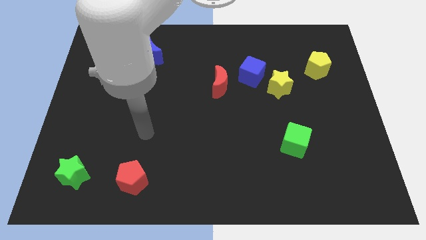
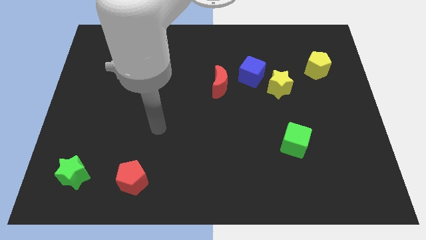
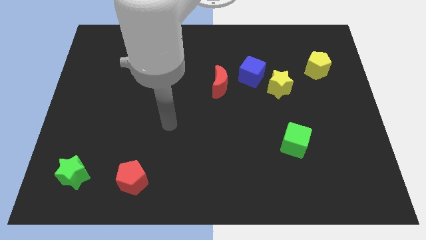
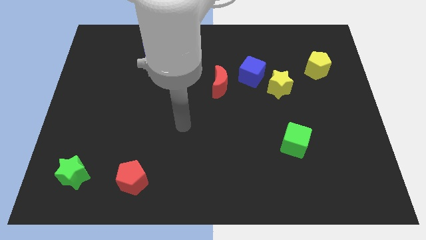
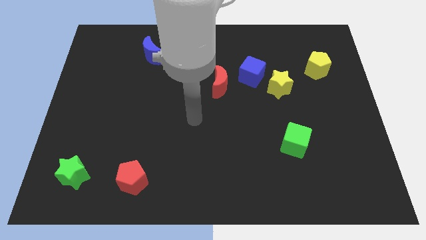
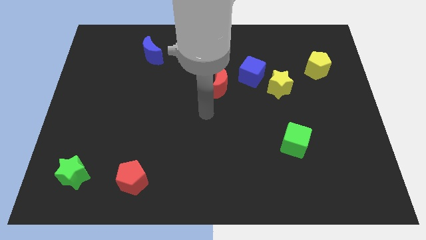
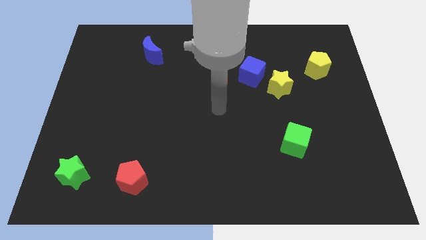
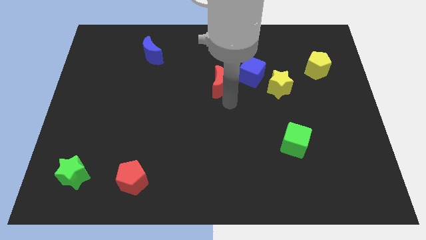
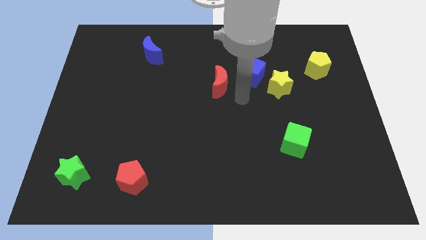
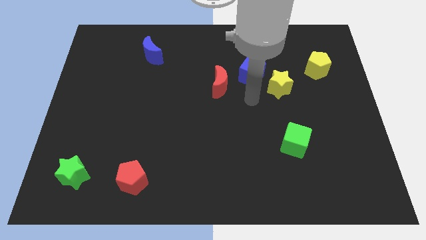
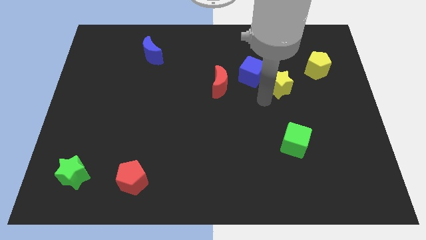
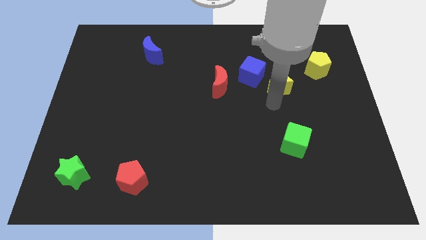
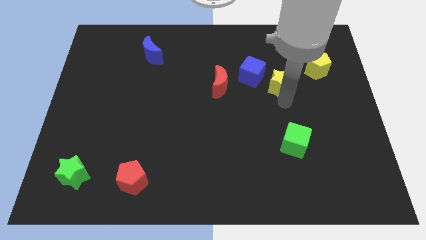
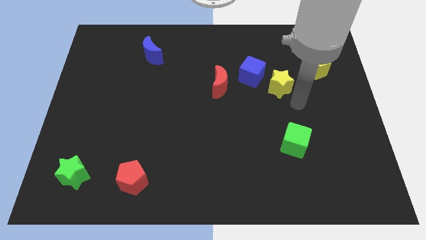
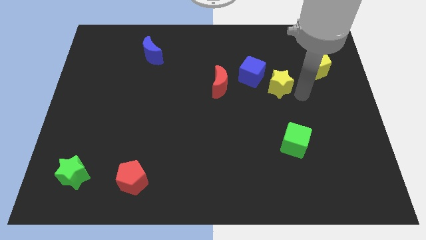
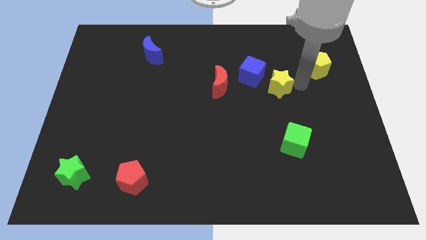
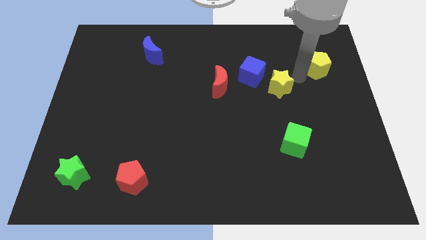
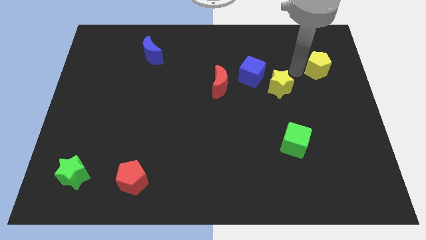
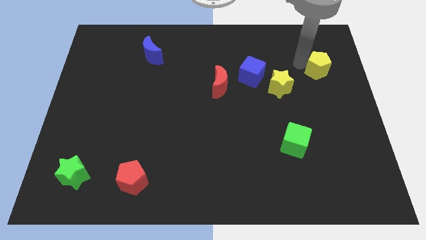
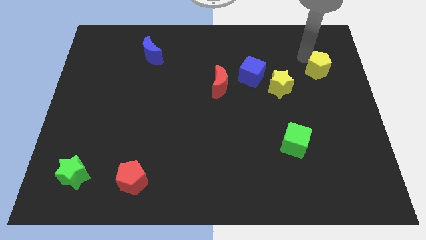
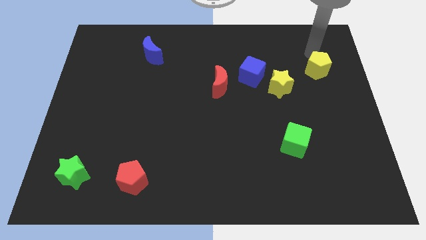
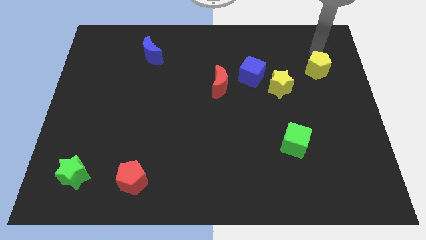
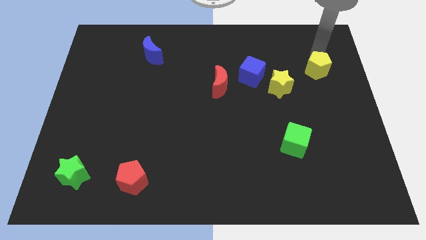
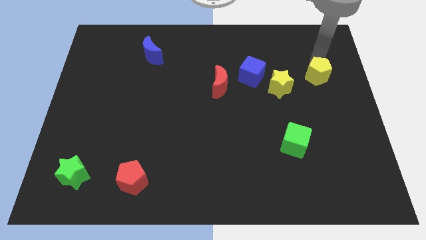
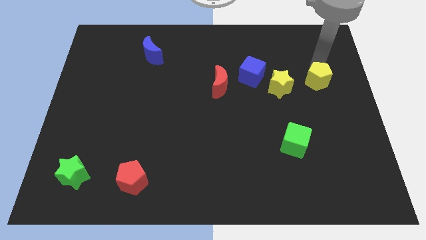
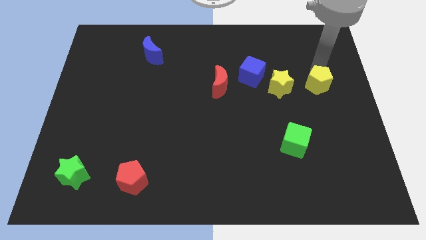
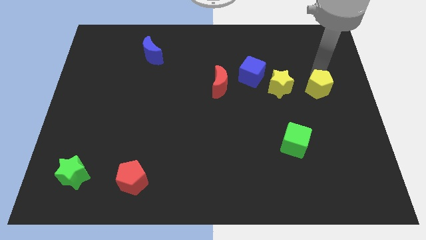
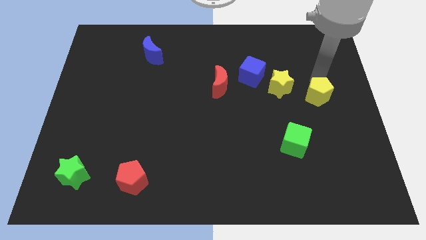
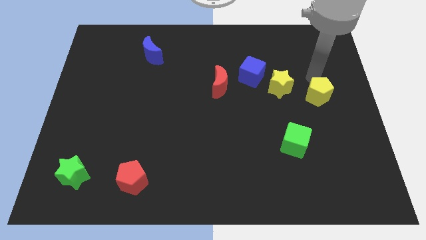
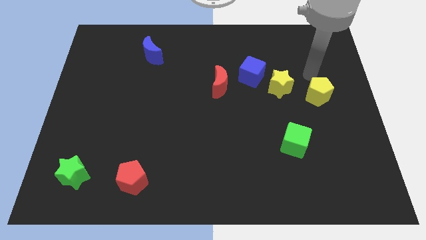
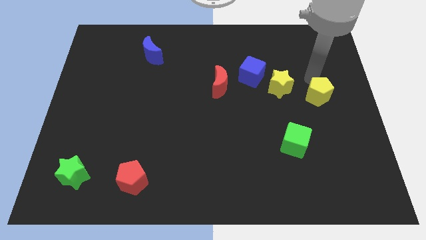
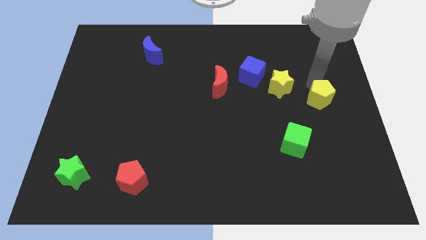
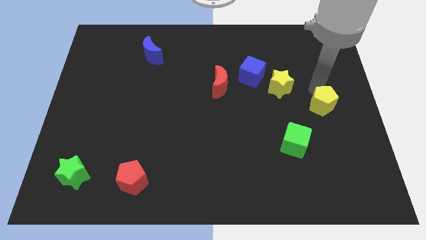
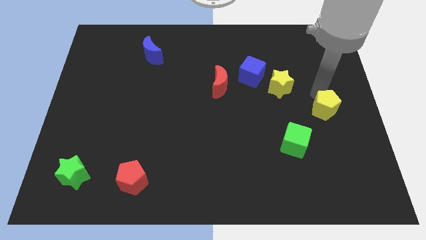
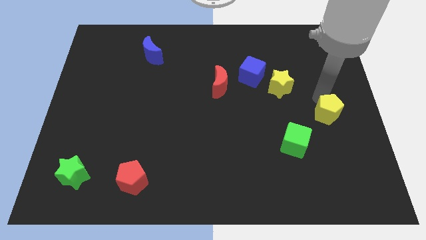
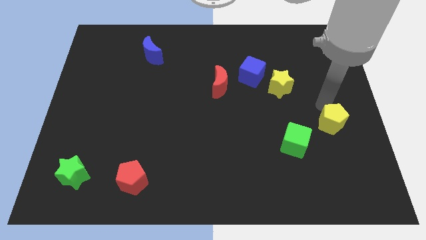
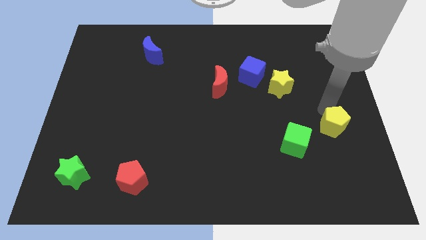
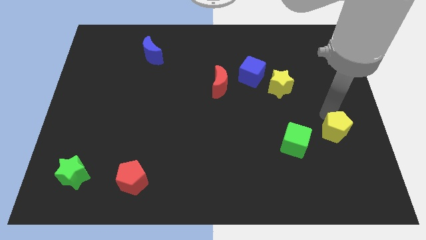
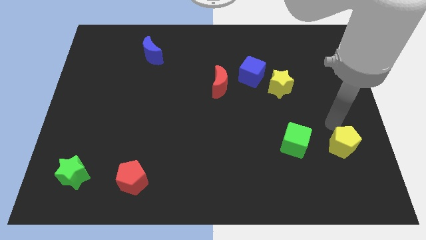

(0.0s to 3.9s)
move the yellow pentagon downwards

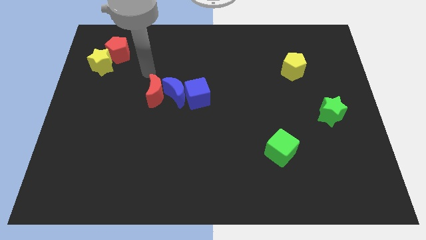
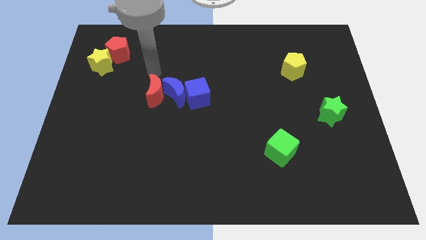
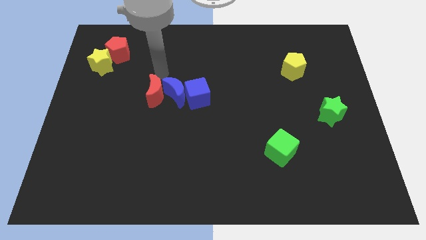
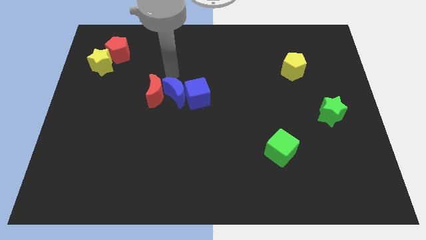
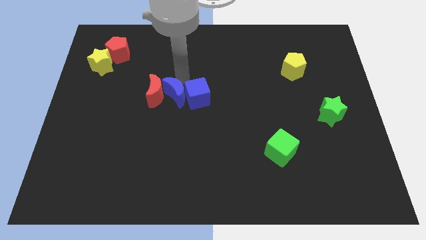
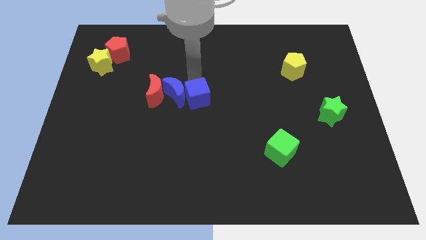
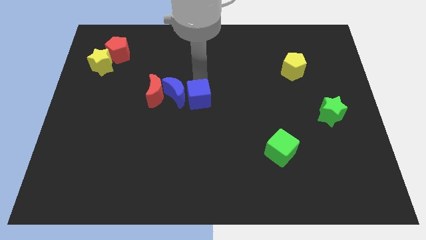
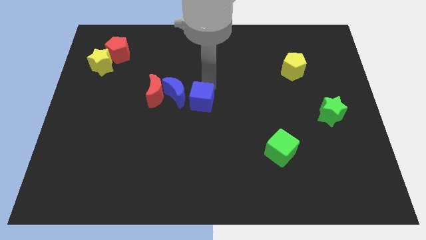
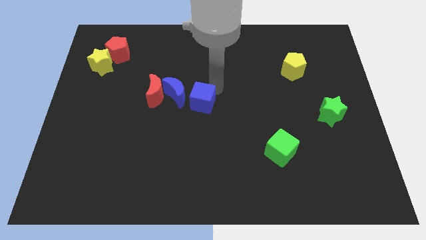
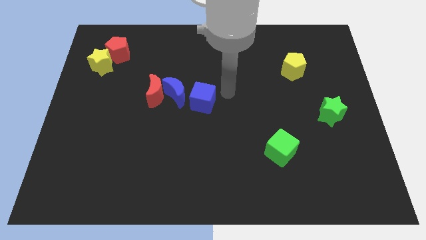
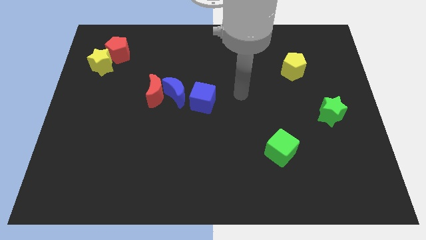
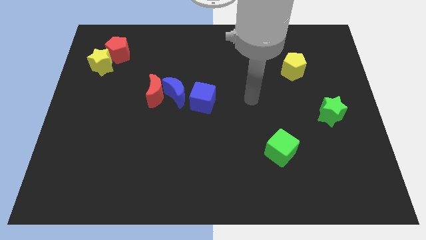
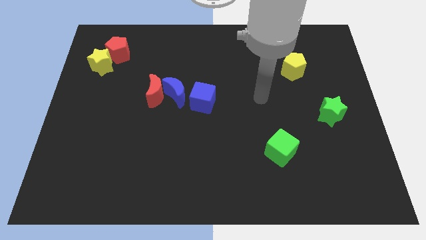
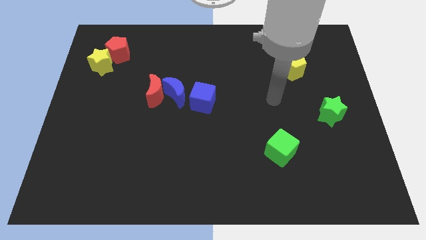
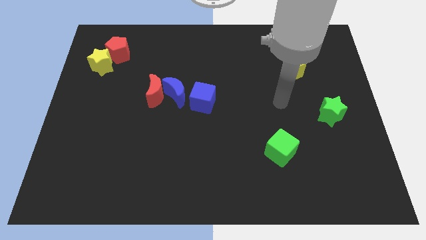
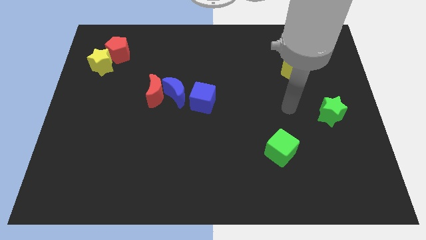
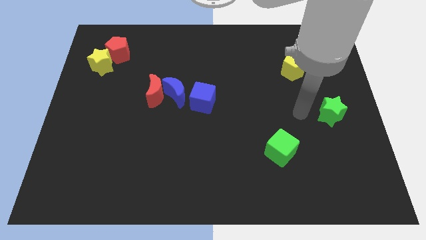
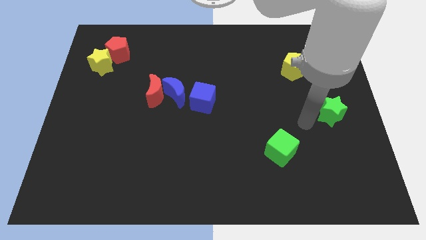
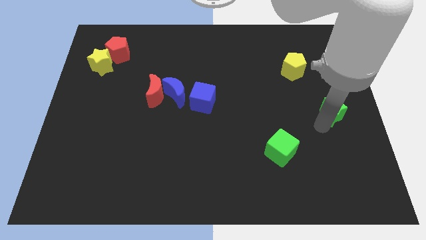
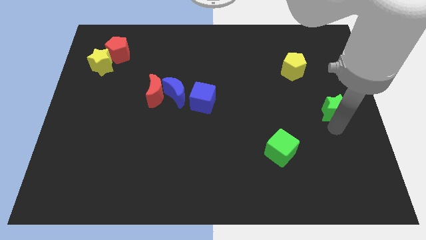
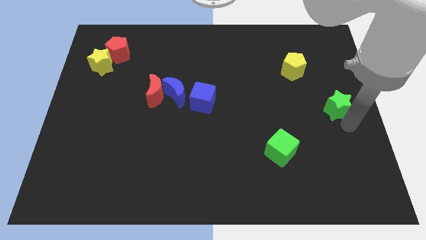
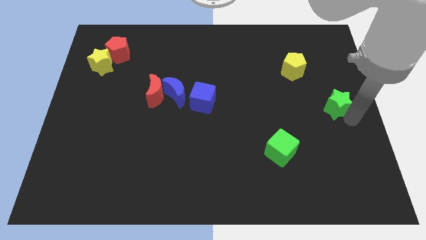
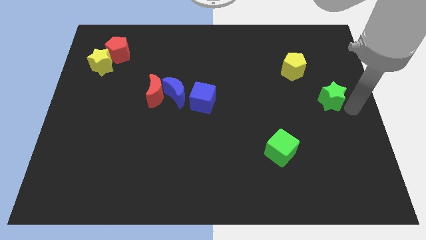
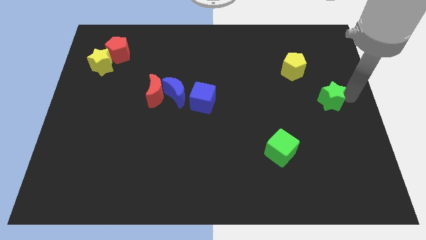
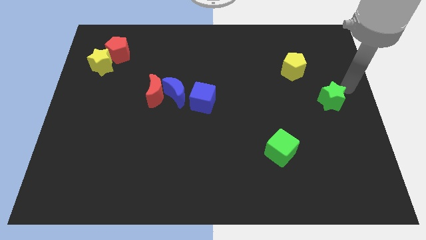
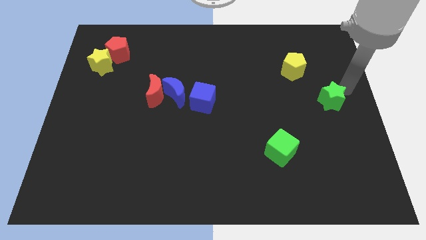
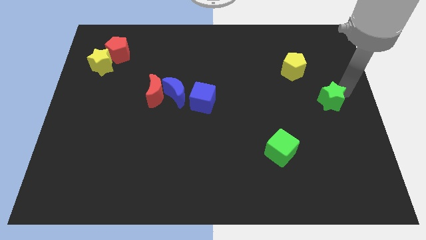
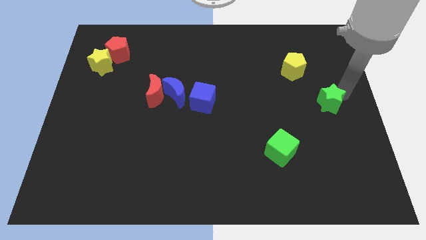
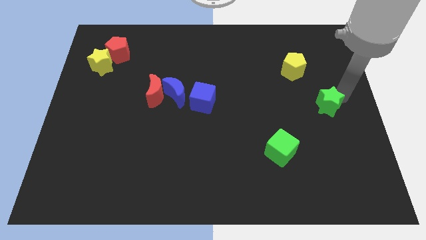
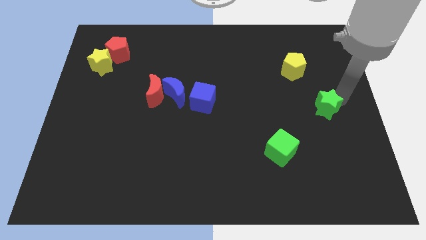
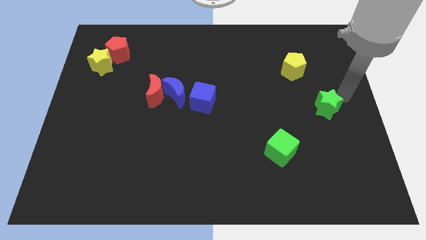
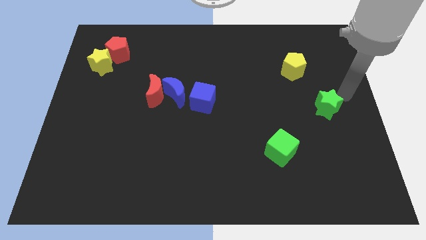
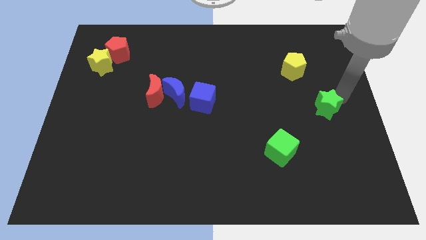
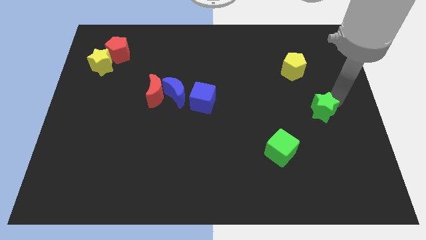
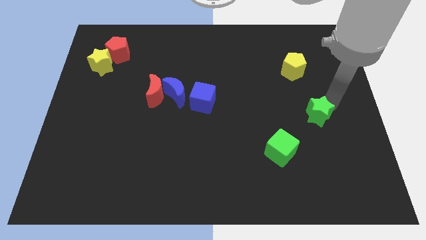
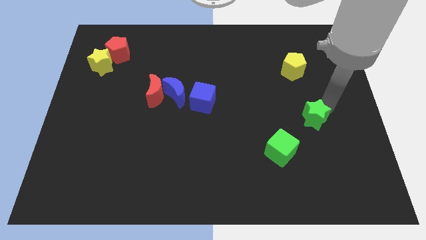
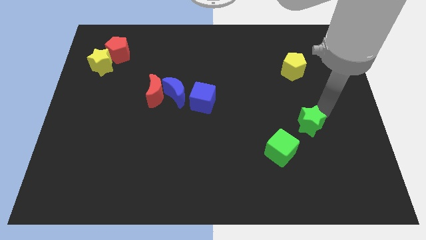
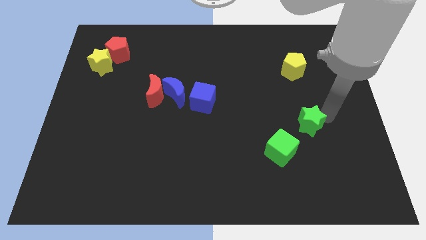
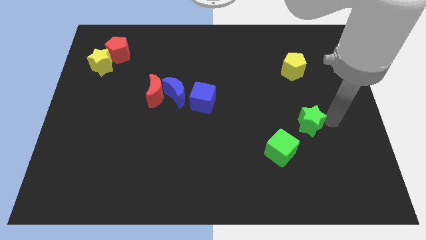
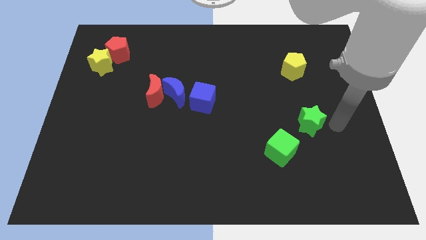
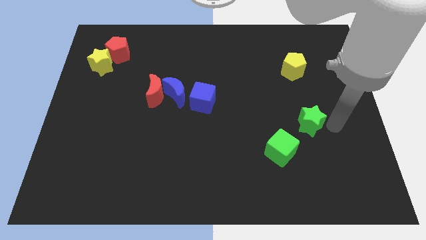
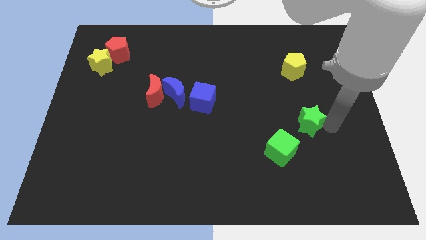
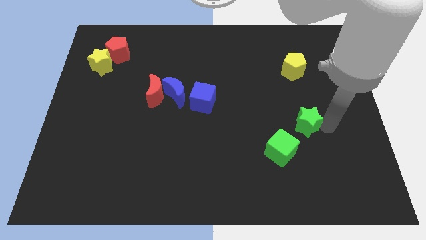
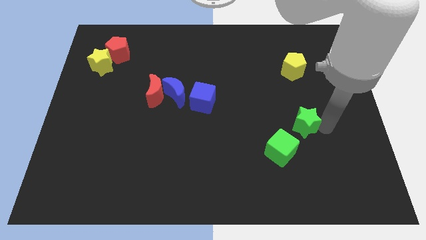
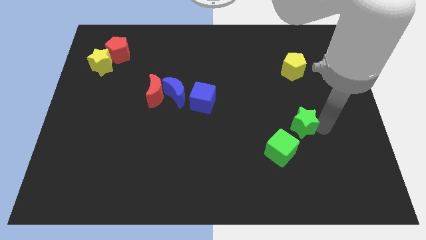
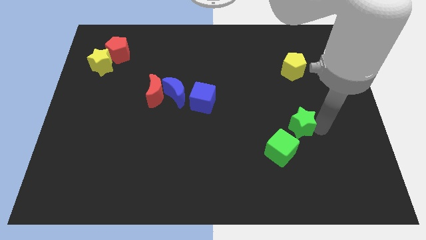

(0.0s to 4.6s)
slightly move the green star left
